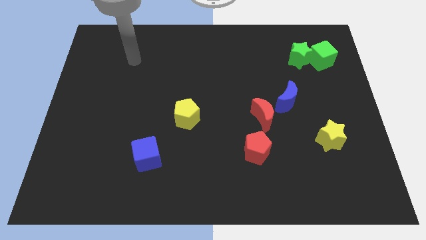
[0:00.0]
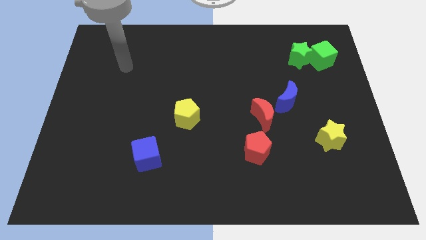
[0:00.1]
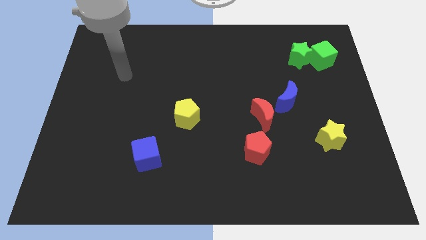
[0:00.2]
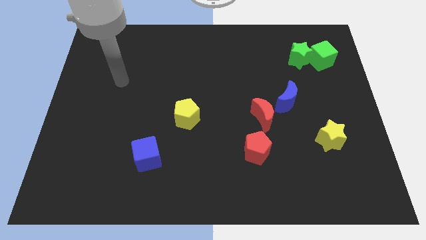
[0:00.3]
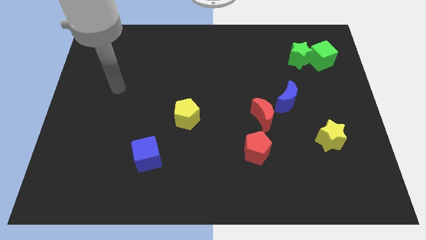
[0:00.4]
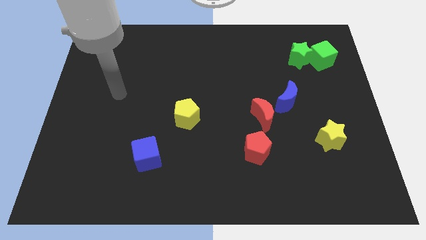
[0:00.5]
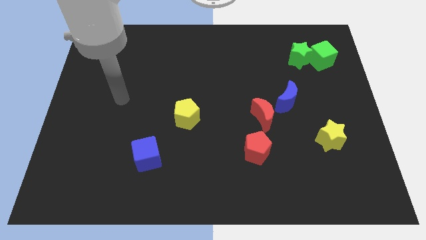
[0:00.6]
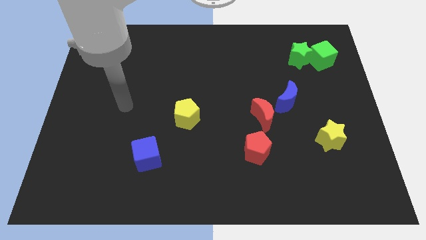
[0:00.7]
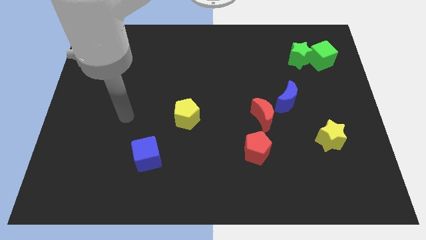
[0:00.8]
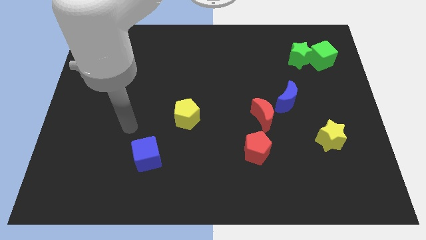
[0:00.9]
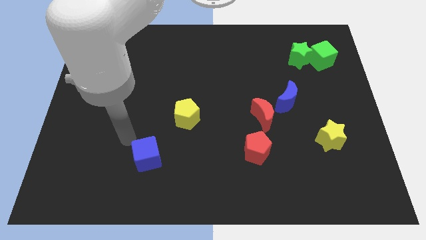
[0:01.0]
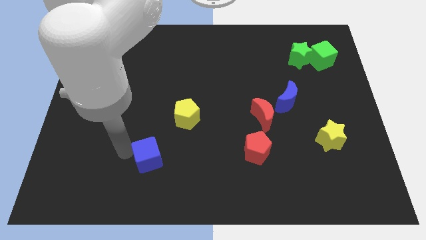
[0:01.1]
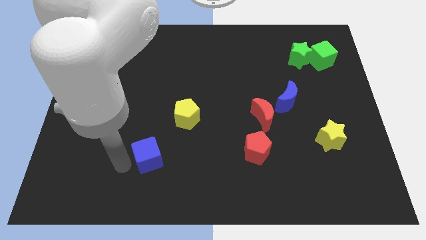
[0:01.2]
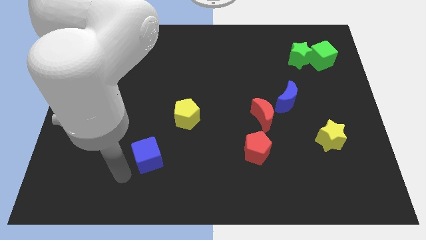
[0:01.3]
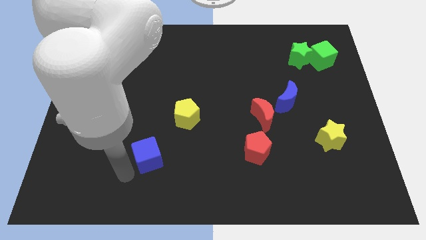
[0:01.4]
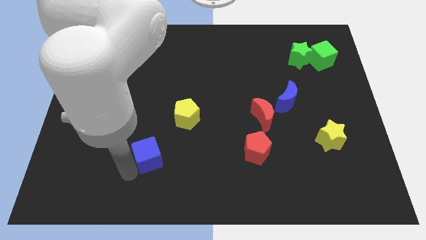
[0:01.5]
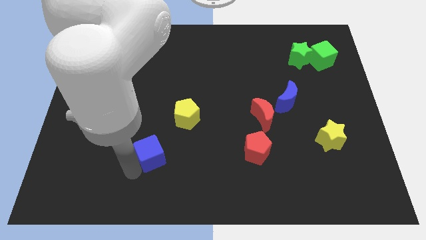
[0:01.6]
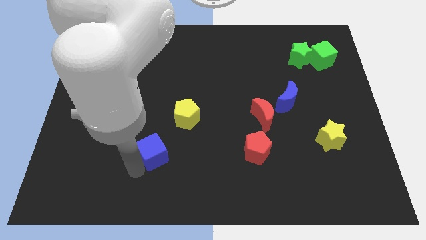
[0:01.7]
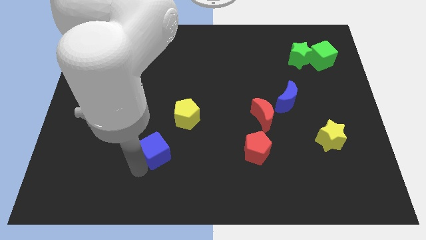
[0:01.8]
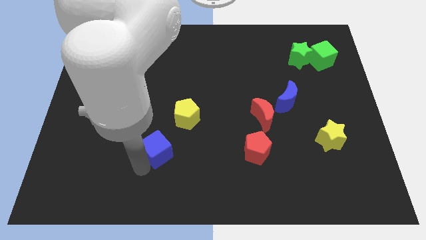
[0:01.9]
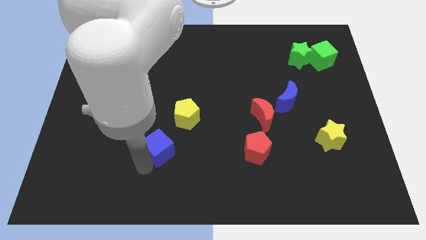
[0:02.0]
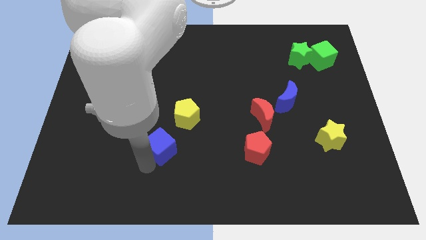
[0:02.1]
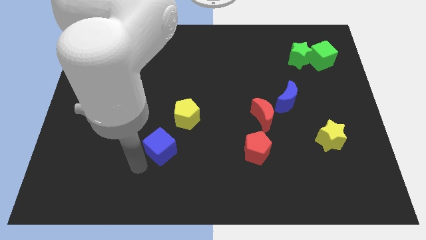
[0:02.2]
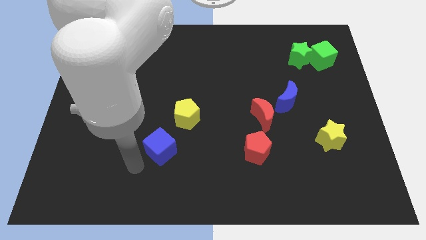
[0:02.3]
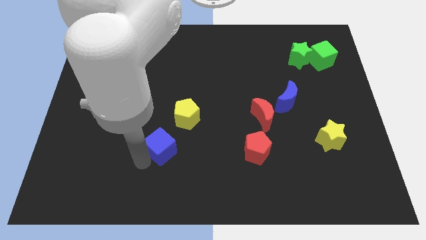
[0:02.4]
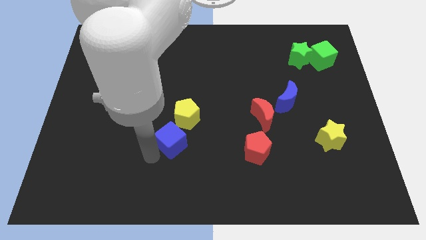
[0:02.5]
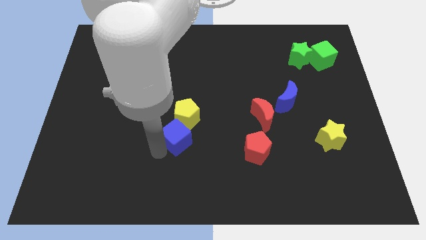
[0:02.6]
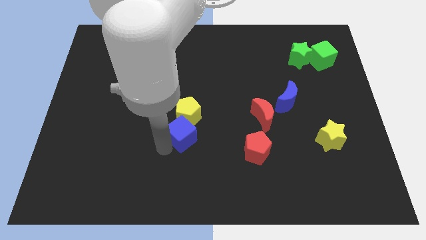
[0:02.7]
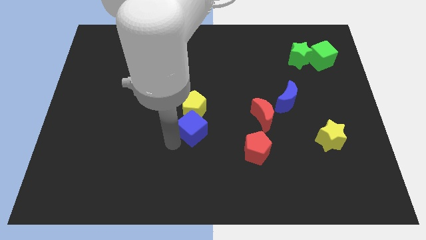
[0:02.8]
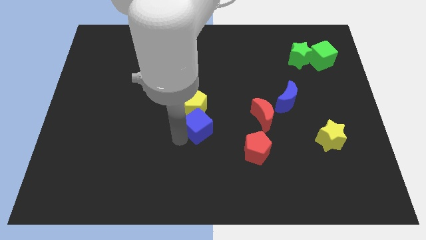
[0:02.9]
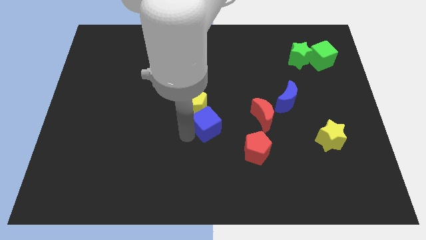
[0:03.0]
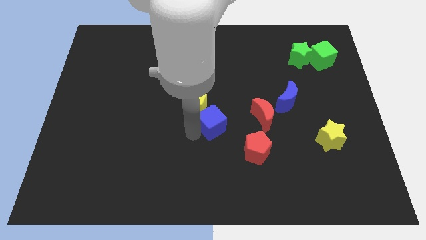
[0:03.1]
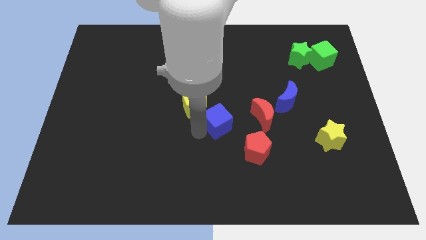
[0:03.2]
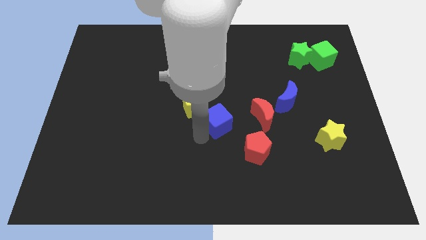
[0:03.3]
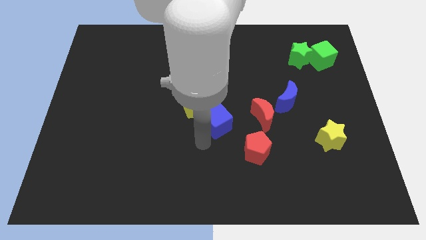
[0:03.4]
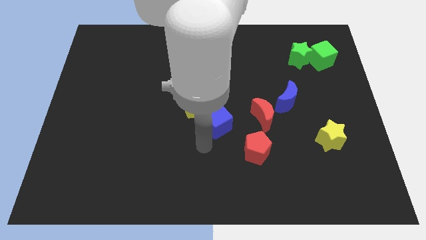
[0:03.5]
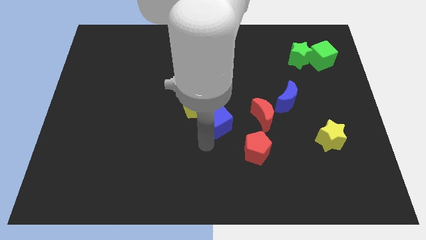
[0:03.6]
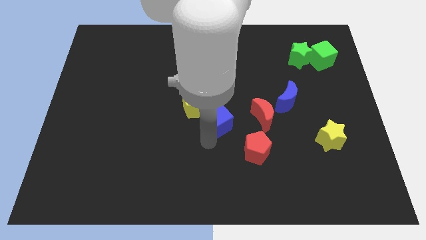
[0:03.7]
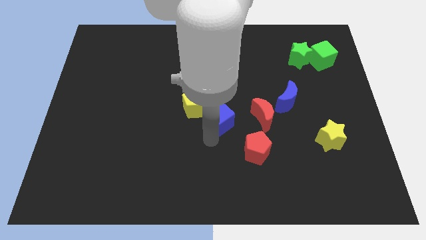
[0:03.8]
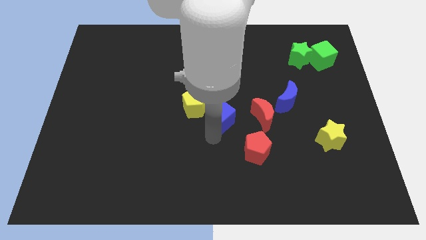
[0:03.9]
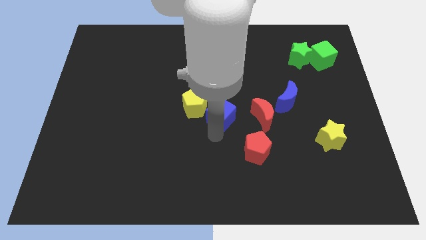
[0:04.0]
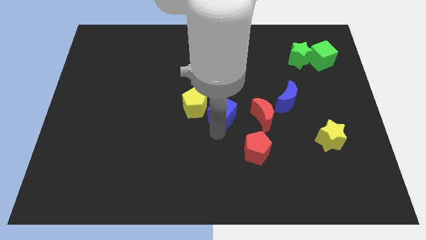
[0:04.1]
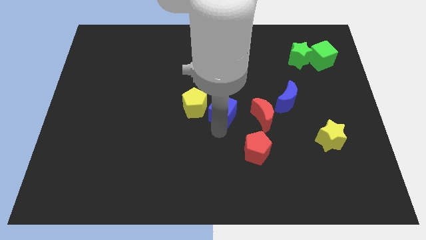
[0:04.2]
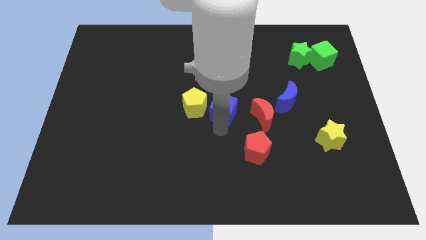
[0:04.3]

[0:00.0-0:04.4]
move the blue cube diagonally upwards and to the right

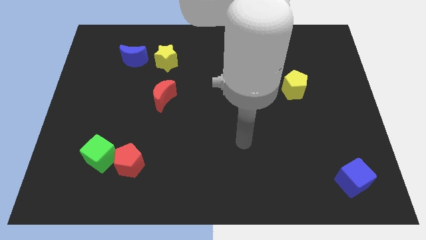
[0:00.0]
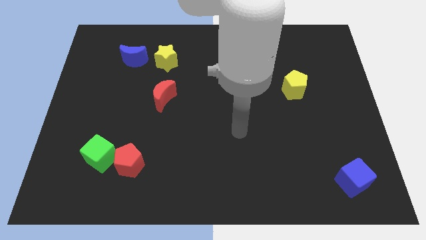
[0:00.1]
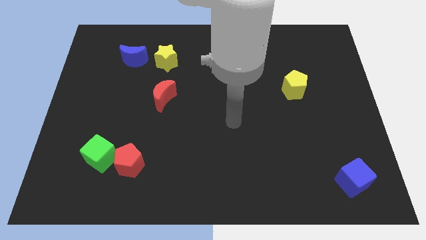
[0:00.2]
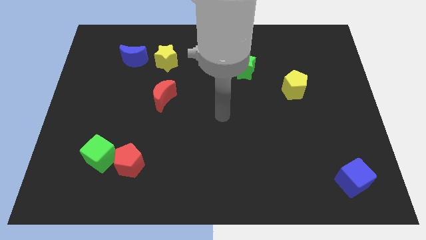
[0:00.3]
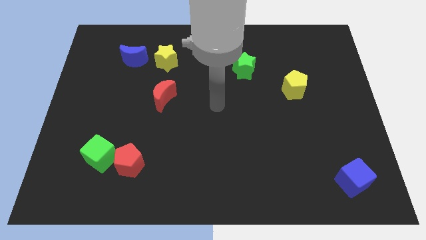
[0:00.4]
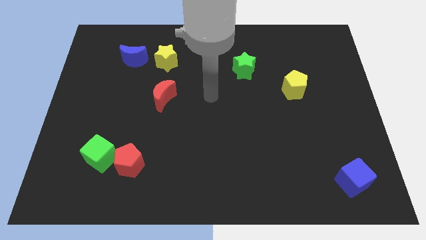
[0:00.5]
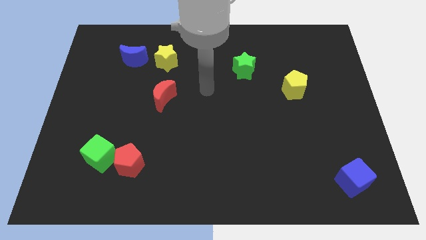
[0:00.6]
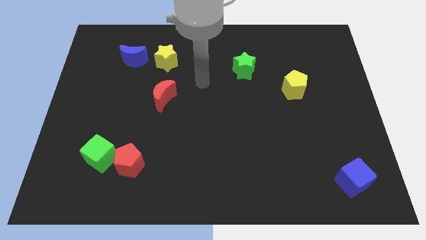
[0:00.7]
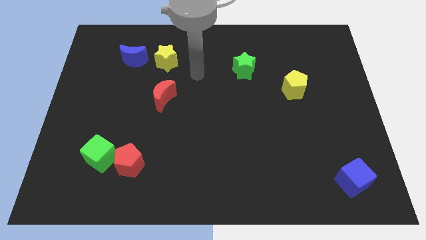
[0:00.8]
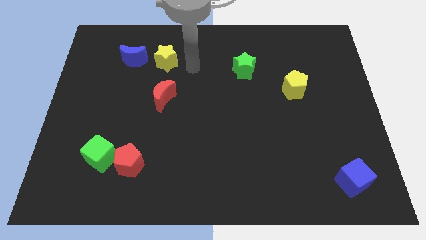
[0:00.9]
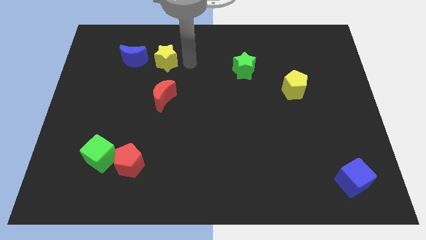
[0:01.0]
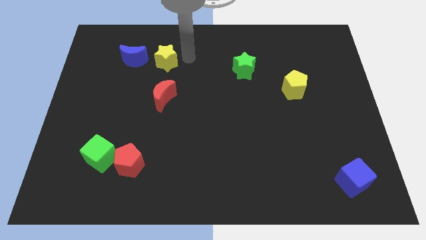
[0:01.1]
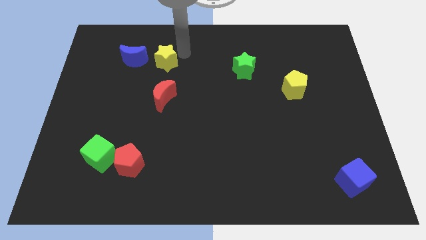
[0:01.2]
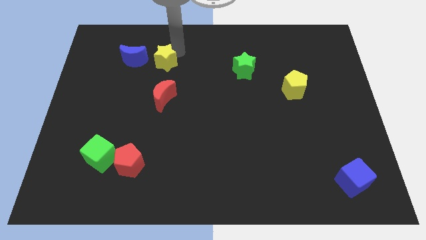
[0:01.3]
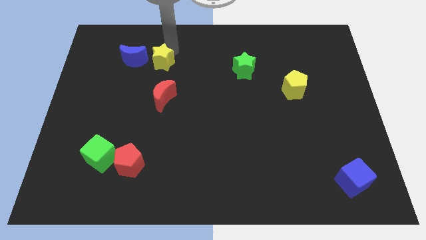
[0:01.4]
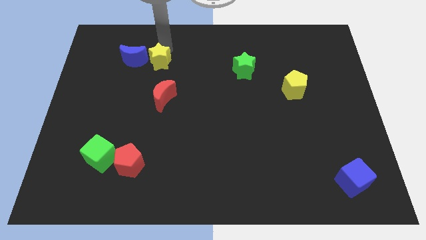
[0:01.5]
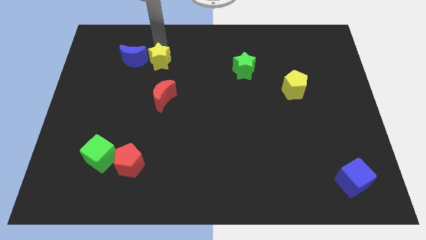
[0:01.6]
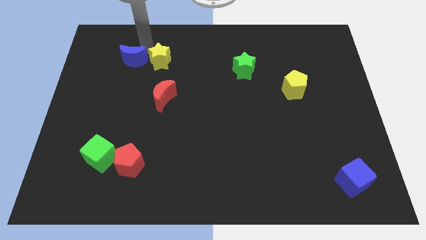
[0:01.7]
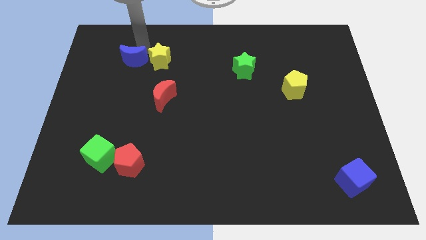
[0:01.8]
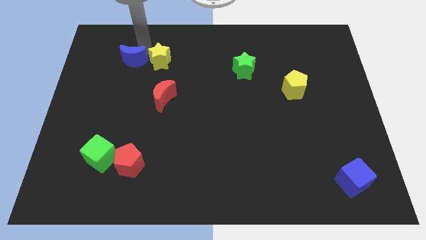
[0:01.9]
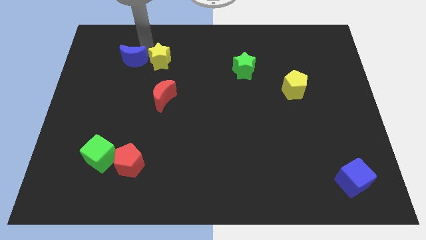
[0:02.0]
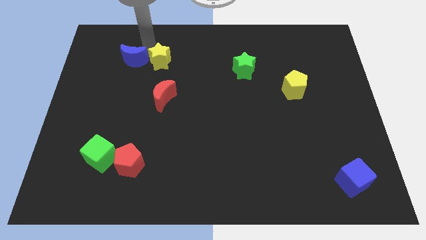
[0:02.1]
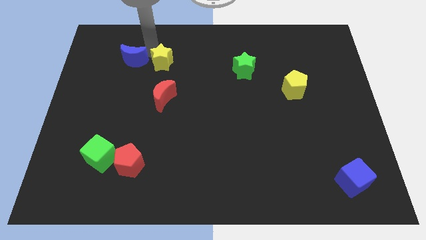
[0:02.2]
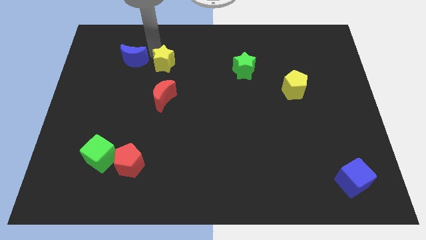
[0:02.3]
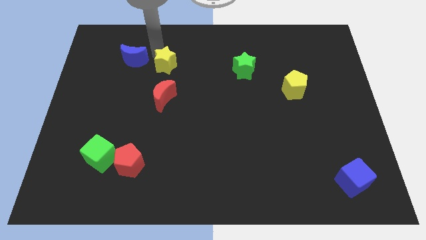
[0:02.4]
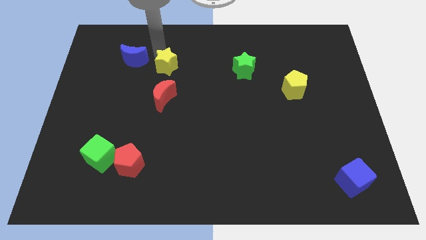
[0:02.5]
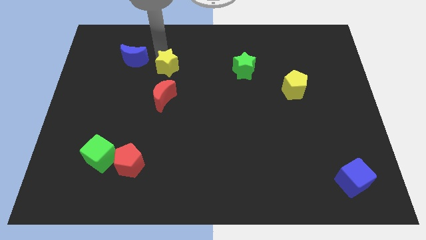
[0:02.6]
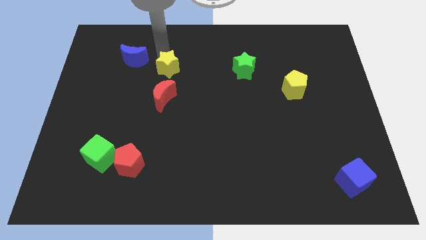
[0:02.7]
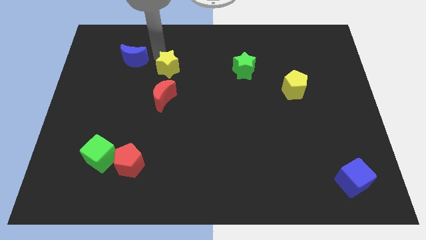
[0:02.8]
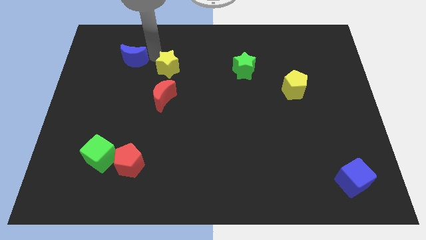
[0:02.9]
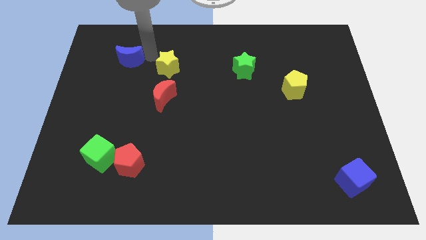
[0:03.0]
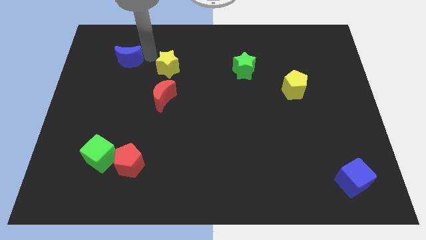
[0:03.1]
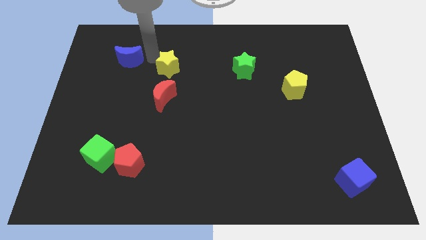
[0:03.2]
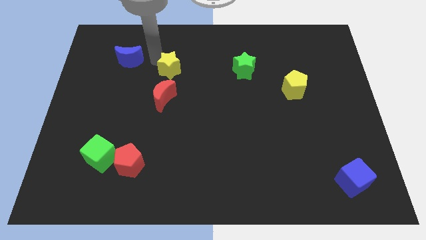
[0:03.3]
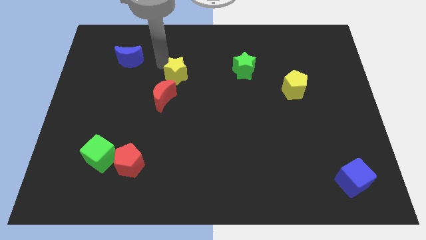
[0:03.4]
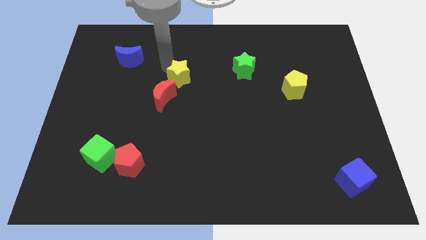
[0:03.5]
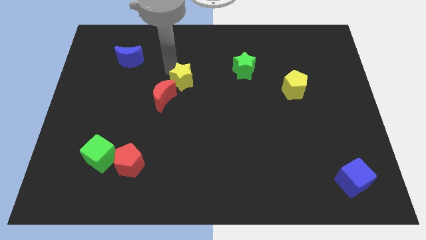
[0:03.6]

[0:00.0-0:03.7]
slide the yellow star down and right diagonally somewhat
